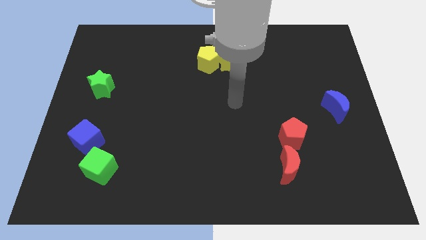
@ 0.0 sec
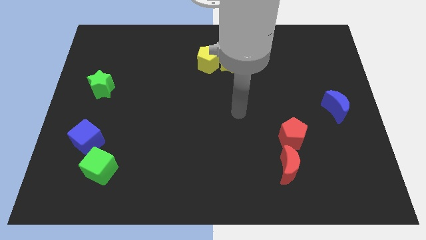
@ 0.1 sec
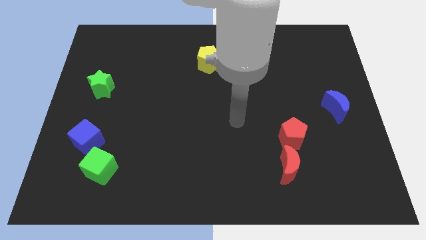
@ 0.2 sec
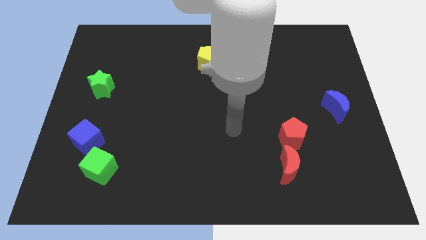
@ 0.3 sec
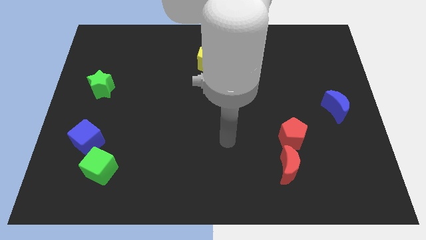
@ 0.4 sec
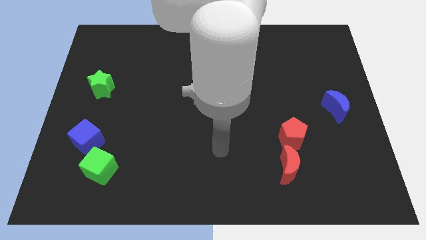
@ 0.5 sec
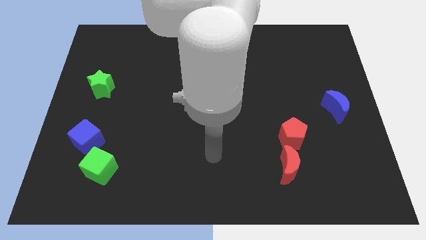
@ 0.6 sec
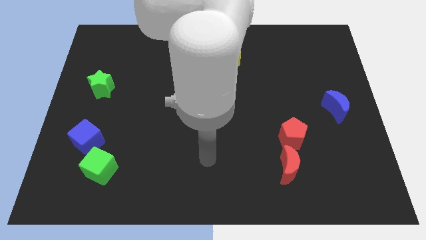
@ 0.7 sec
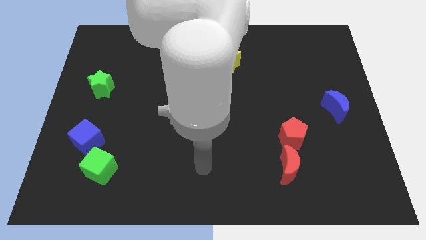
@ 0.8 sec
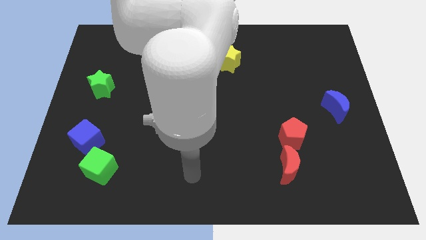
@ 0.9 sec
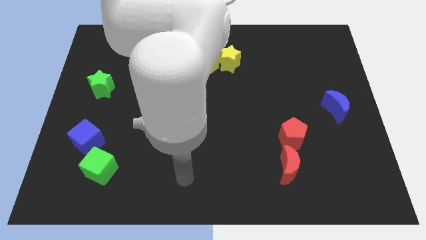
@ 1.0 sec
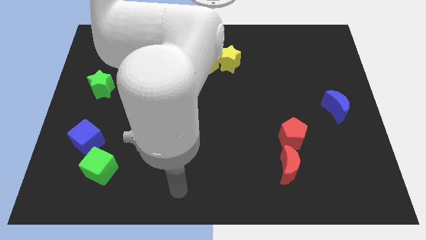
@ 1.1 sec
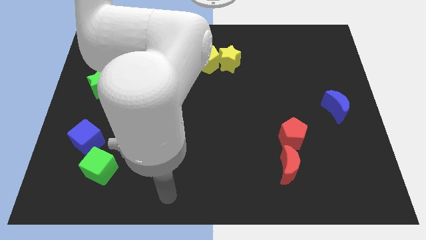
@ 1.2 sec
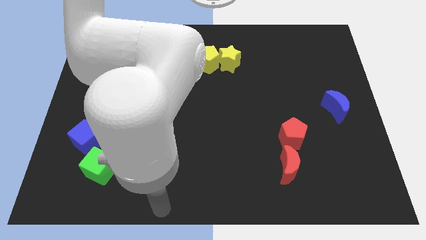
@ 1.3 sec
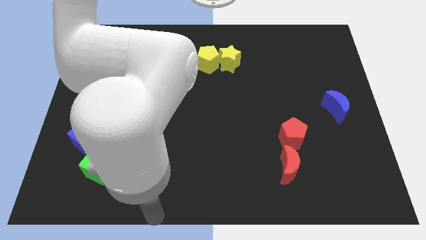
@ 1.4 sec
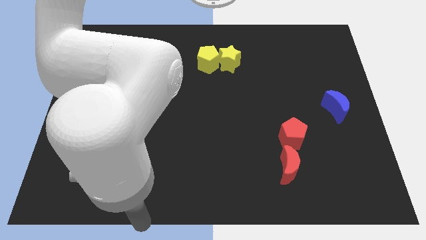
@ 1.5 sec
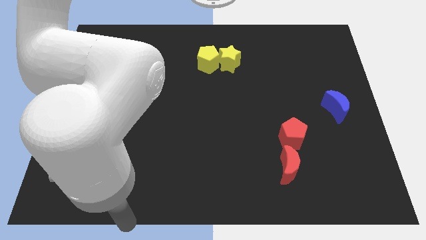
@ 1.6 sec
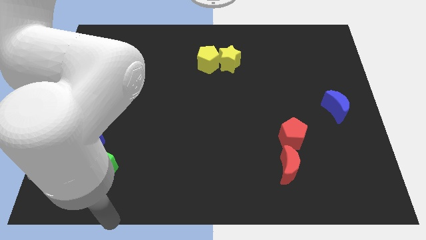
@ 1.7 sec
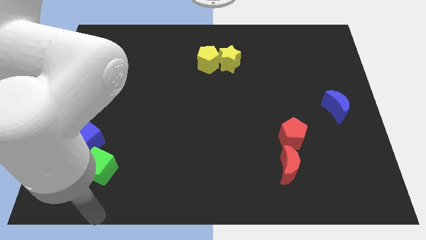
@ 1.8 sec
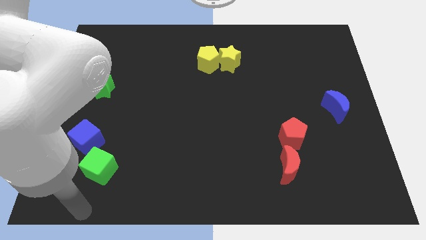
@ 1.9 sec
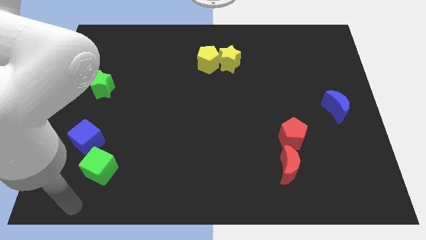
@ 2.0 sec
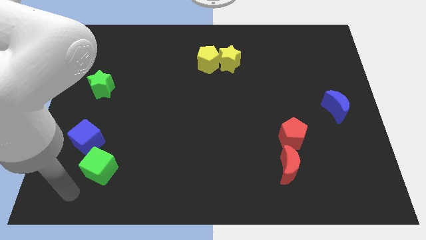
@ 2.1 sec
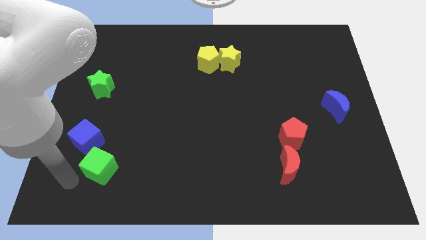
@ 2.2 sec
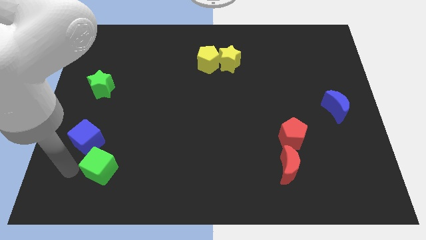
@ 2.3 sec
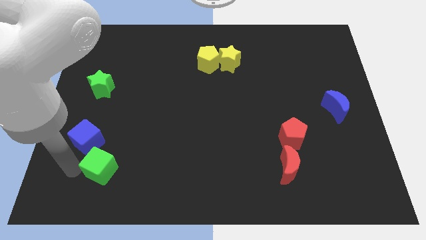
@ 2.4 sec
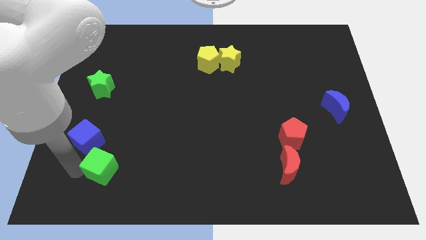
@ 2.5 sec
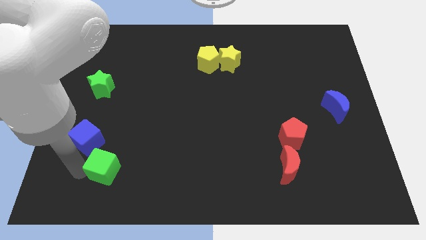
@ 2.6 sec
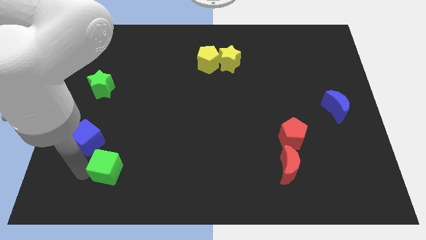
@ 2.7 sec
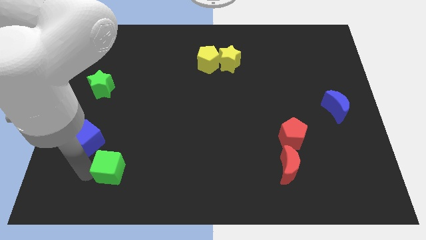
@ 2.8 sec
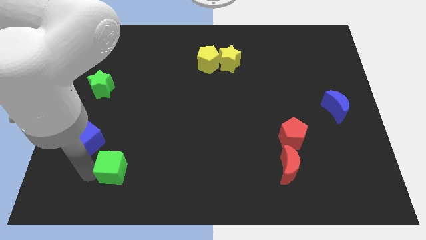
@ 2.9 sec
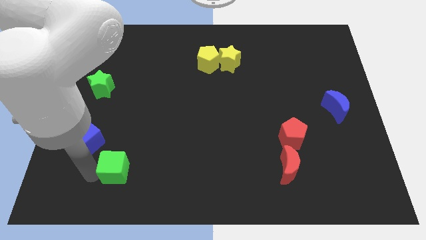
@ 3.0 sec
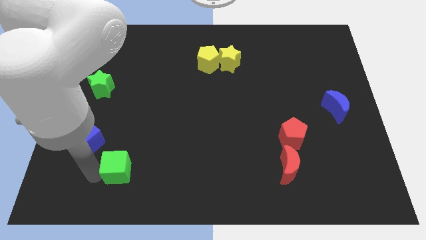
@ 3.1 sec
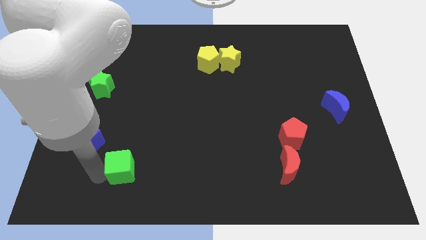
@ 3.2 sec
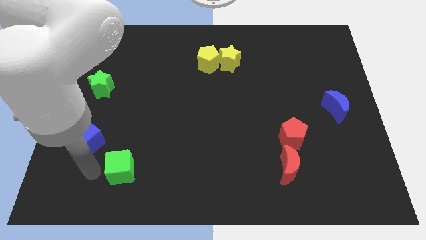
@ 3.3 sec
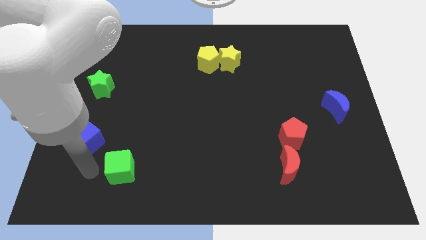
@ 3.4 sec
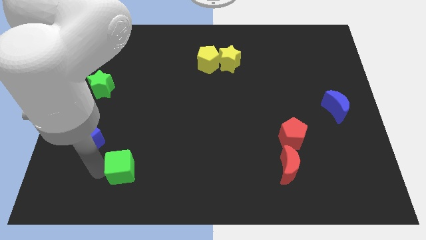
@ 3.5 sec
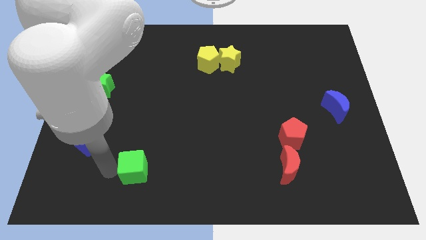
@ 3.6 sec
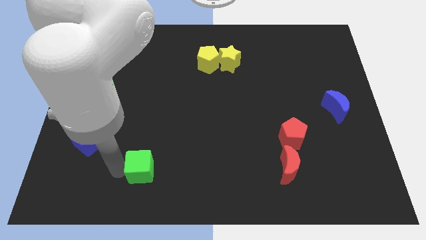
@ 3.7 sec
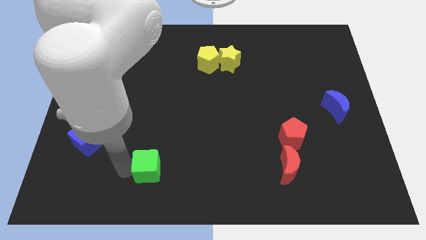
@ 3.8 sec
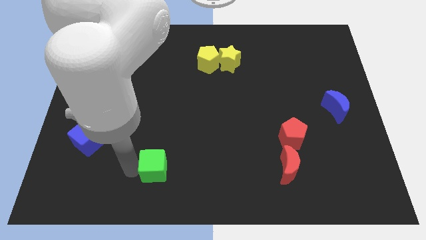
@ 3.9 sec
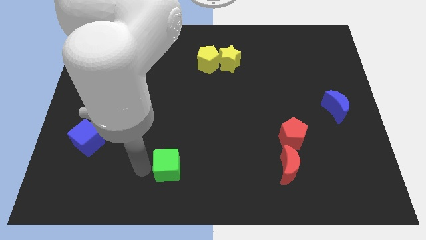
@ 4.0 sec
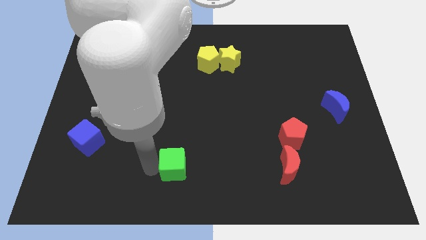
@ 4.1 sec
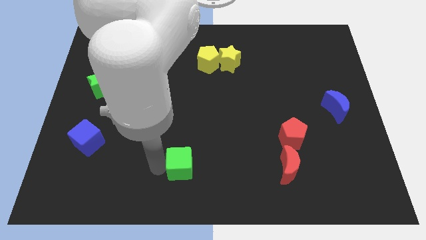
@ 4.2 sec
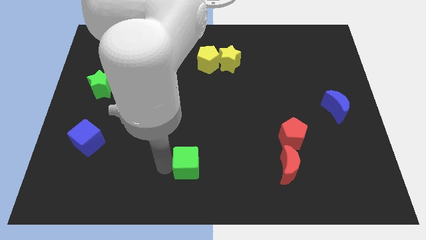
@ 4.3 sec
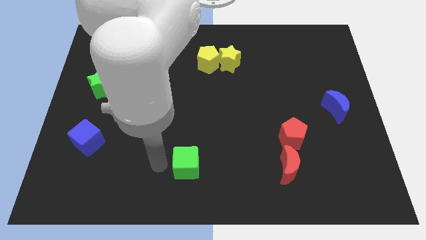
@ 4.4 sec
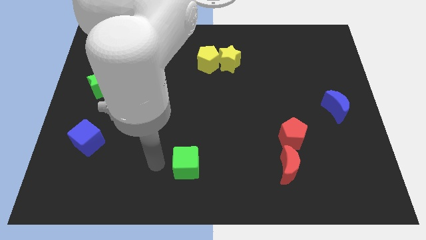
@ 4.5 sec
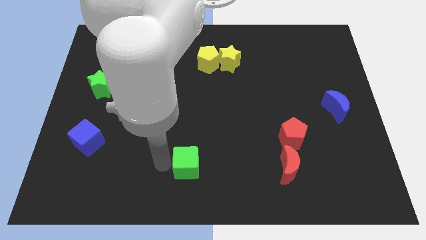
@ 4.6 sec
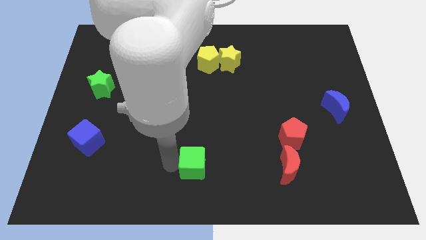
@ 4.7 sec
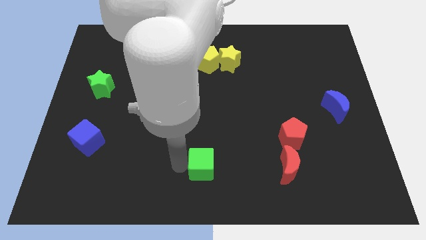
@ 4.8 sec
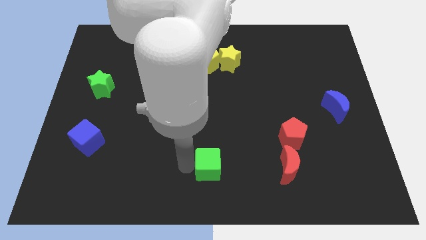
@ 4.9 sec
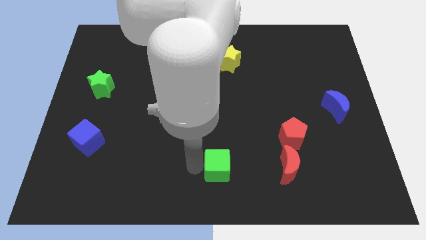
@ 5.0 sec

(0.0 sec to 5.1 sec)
push the green cube to the left side of the red moon

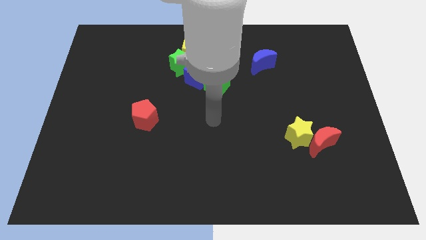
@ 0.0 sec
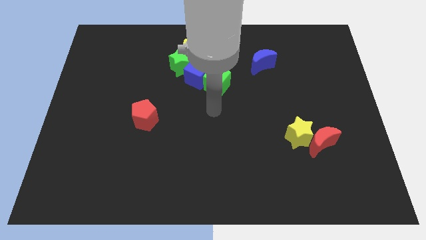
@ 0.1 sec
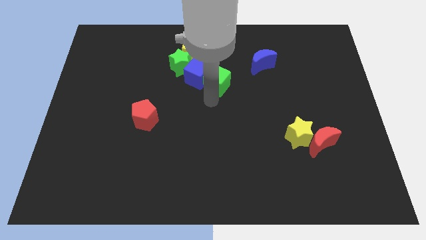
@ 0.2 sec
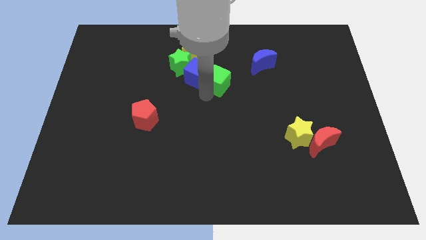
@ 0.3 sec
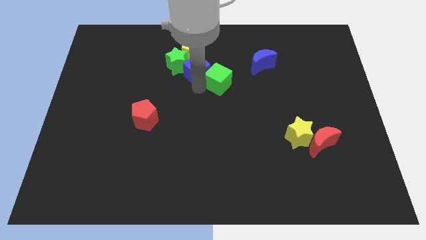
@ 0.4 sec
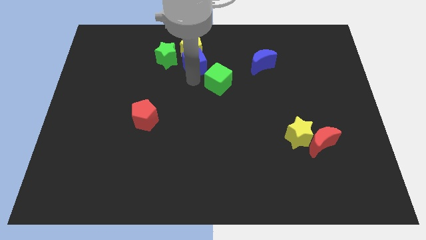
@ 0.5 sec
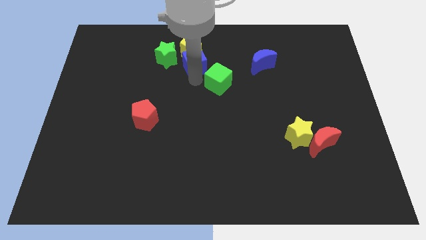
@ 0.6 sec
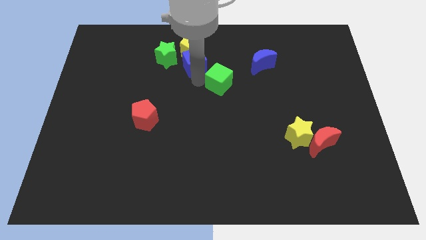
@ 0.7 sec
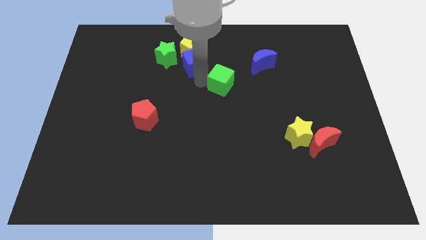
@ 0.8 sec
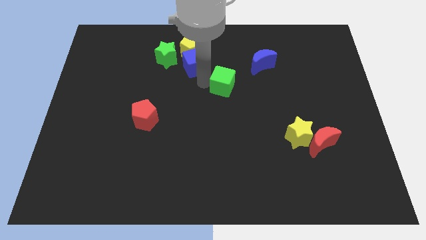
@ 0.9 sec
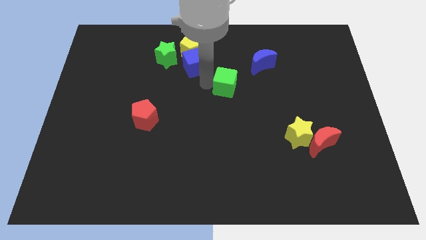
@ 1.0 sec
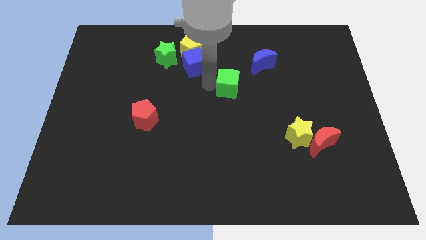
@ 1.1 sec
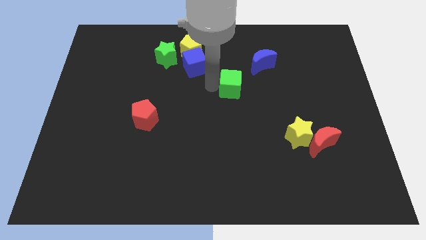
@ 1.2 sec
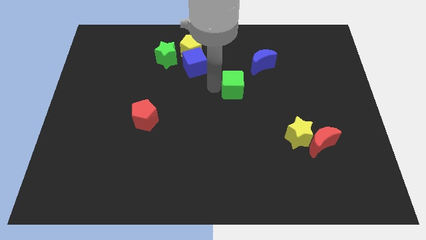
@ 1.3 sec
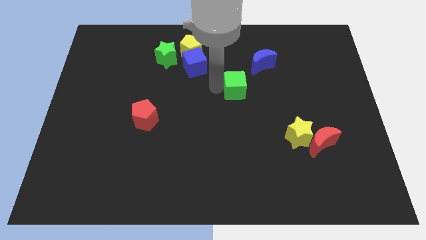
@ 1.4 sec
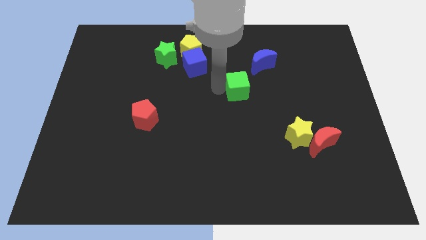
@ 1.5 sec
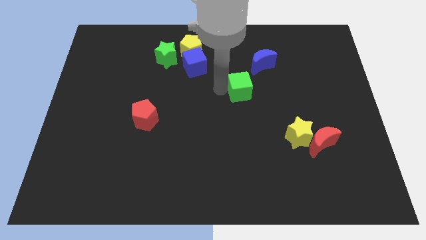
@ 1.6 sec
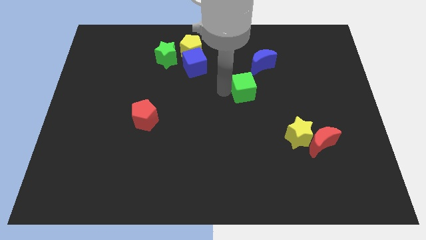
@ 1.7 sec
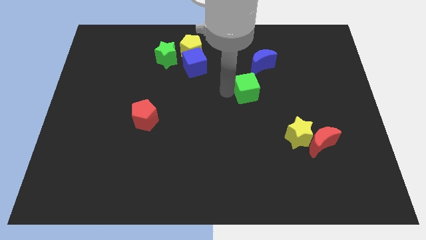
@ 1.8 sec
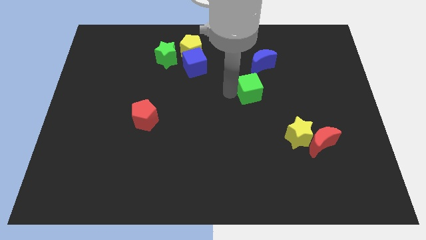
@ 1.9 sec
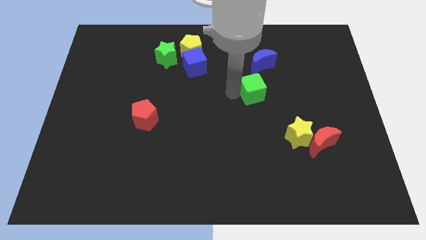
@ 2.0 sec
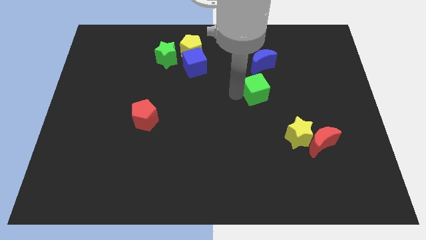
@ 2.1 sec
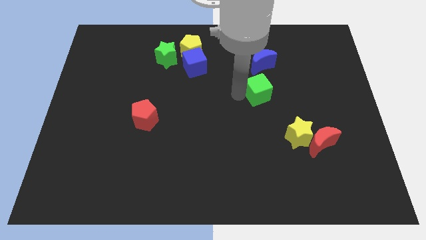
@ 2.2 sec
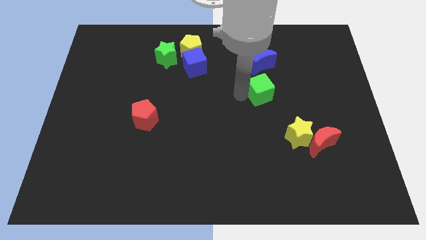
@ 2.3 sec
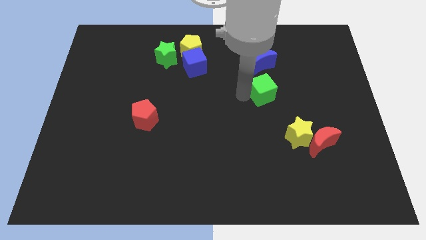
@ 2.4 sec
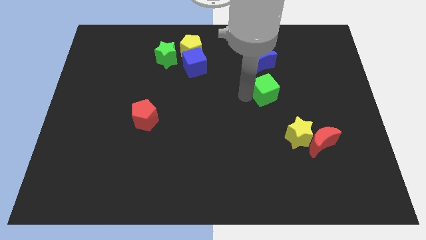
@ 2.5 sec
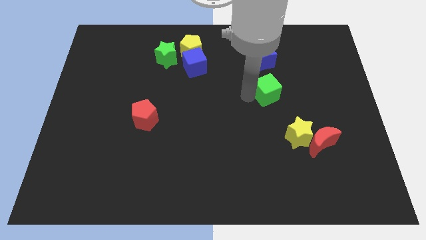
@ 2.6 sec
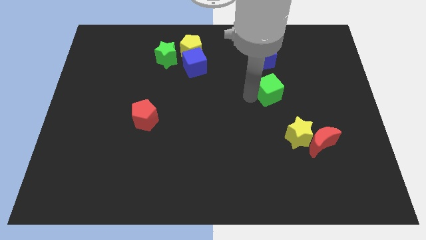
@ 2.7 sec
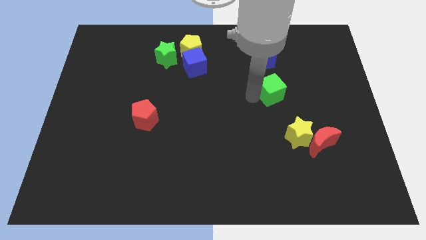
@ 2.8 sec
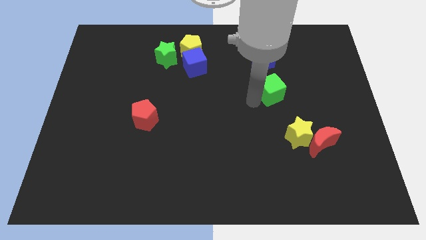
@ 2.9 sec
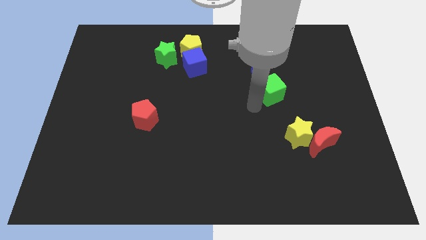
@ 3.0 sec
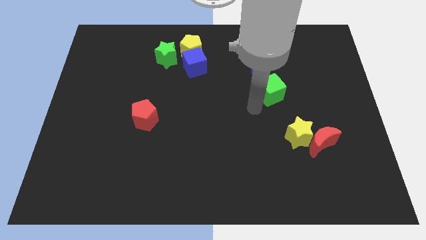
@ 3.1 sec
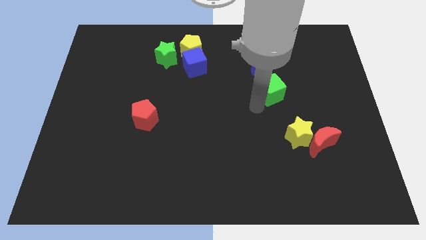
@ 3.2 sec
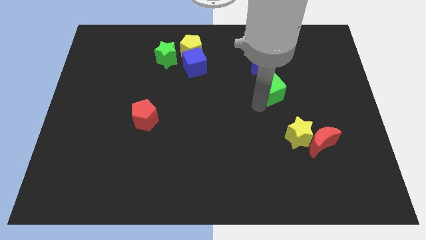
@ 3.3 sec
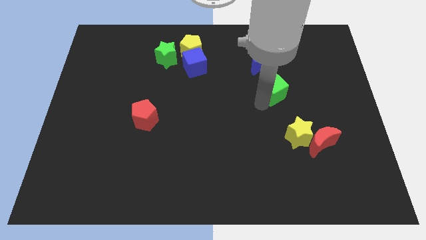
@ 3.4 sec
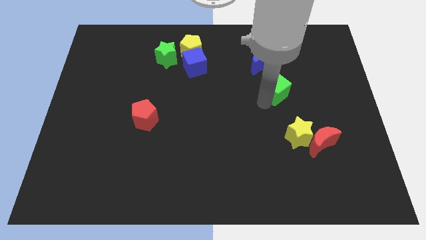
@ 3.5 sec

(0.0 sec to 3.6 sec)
move the green cube to the bottom right side of the blue moon
